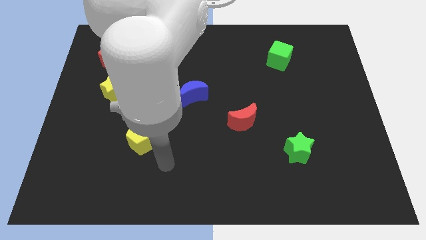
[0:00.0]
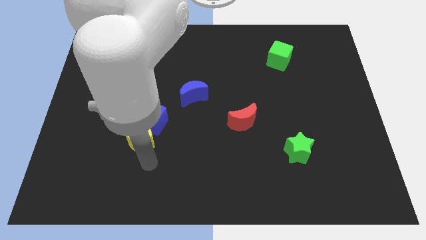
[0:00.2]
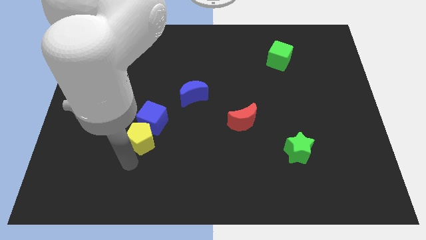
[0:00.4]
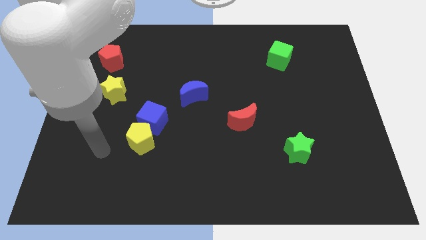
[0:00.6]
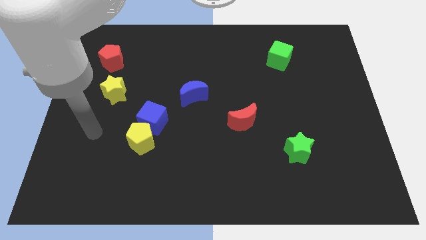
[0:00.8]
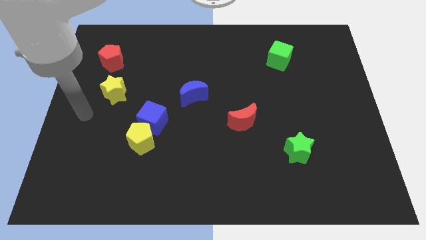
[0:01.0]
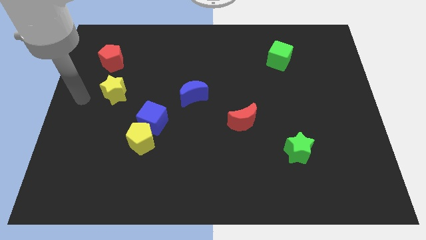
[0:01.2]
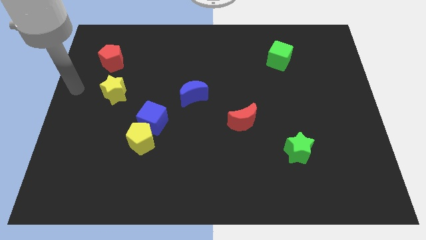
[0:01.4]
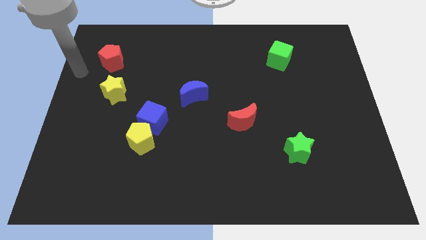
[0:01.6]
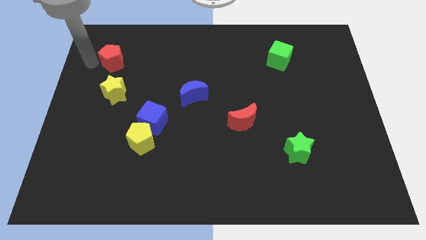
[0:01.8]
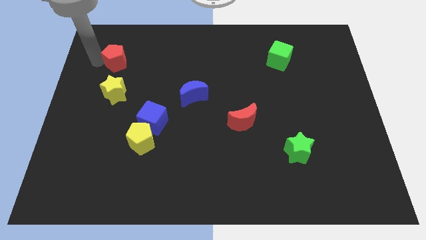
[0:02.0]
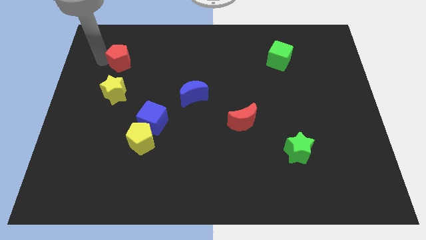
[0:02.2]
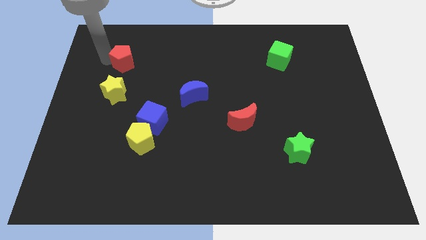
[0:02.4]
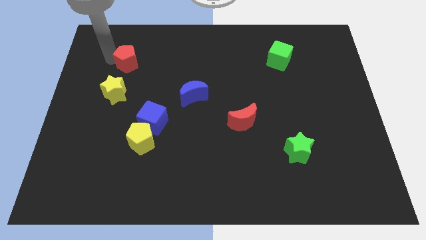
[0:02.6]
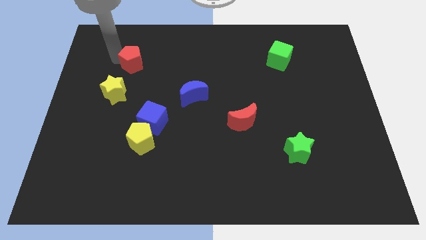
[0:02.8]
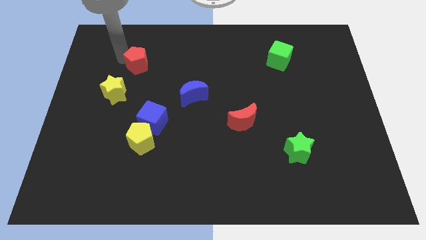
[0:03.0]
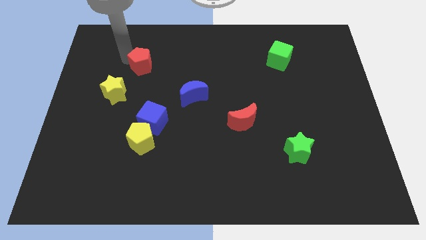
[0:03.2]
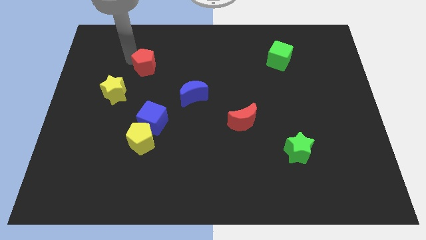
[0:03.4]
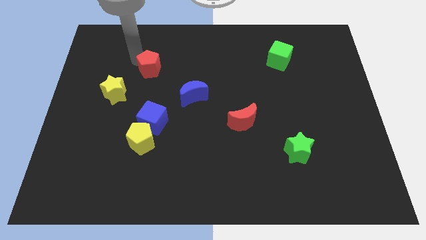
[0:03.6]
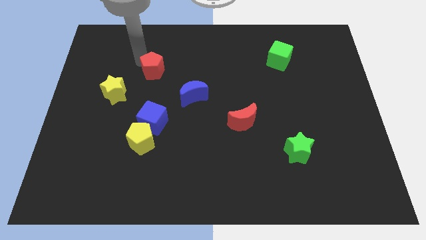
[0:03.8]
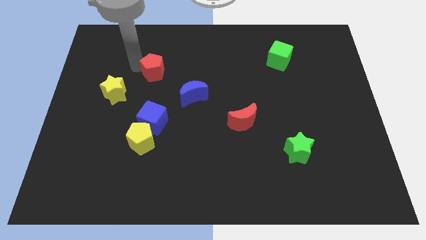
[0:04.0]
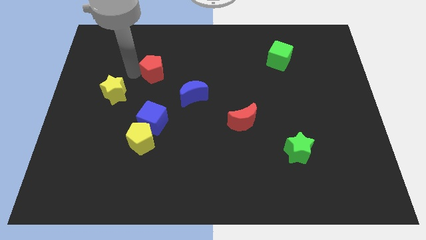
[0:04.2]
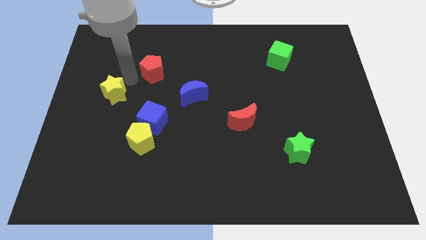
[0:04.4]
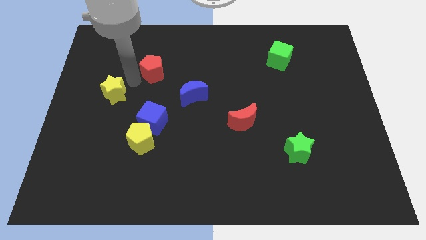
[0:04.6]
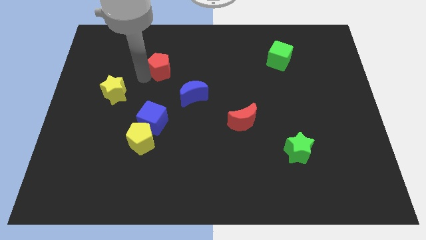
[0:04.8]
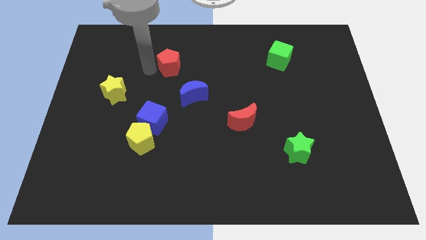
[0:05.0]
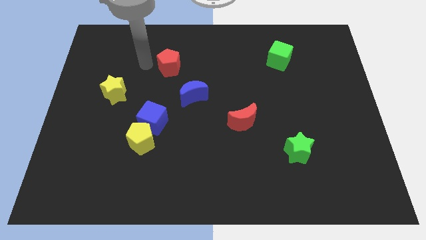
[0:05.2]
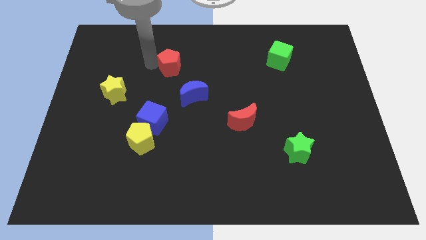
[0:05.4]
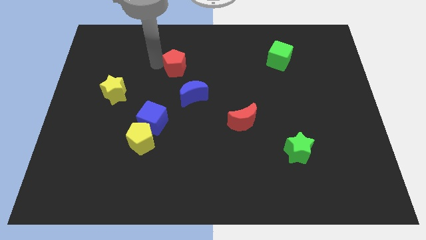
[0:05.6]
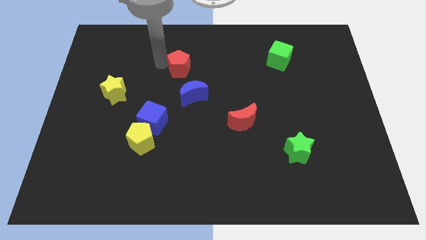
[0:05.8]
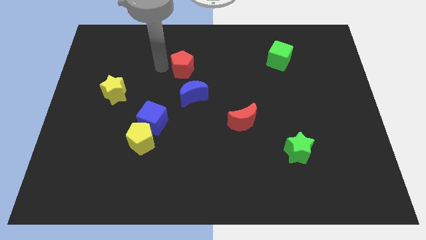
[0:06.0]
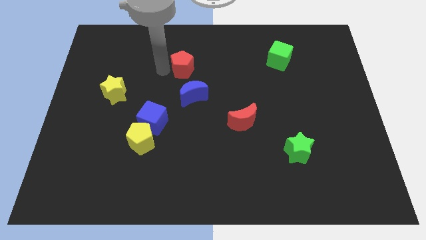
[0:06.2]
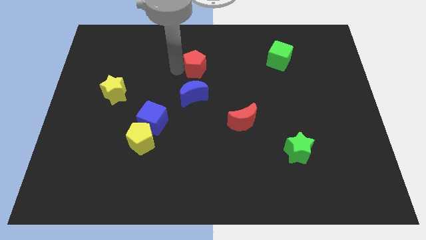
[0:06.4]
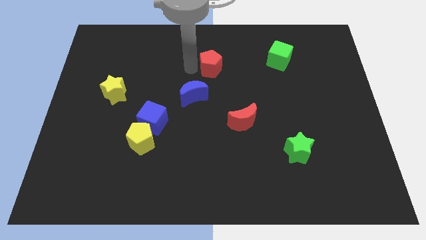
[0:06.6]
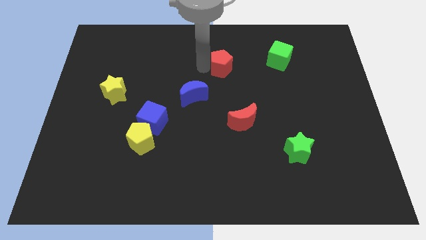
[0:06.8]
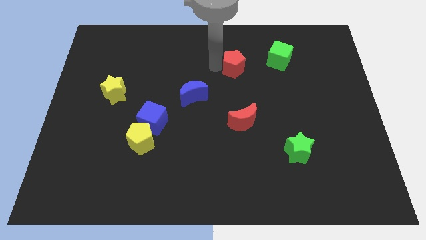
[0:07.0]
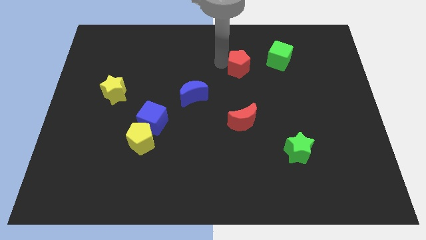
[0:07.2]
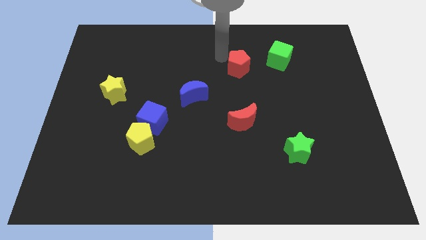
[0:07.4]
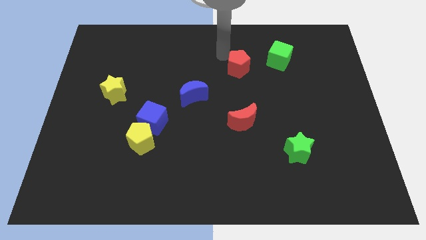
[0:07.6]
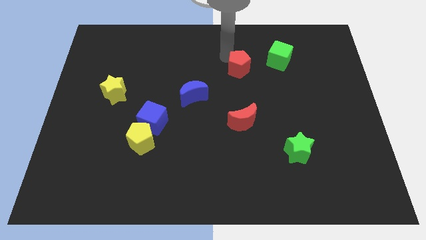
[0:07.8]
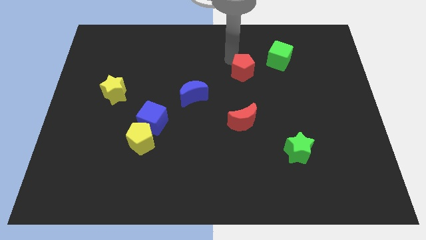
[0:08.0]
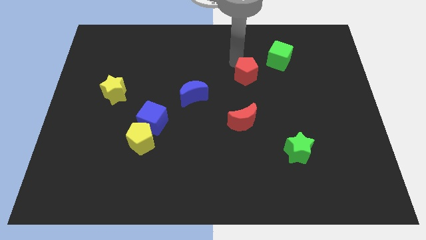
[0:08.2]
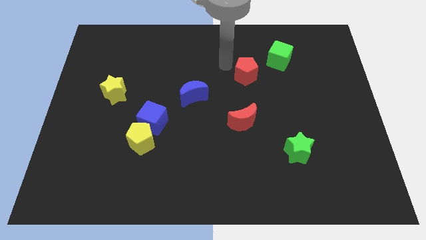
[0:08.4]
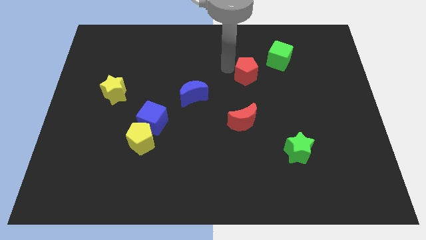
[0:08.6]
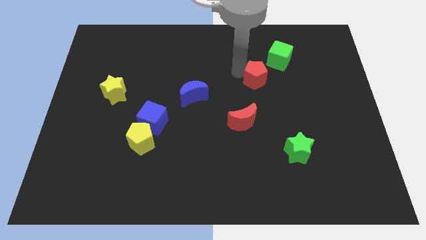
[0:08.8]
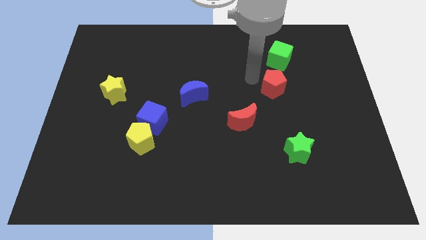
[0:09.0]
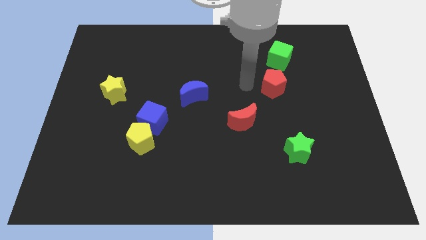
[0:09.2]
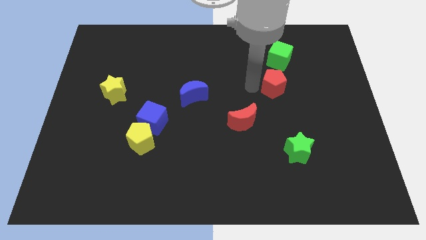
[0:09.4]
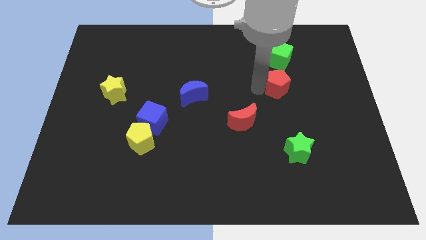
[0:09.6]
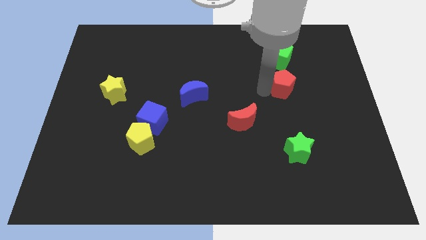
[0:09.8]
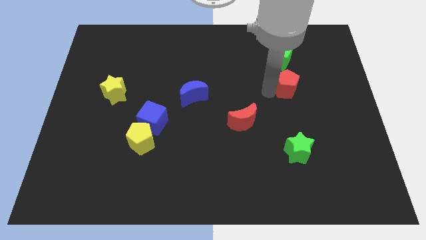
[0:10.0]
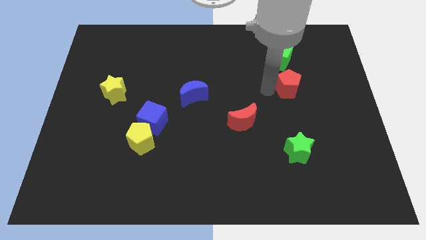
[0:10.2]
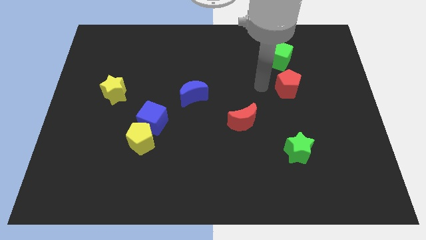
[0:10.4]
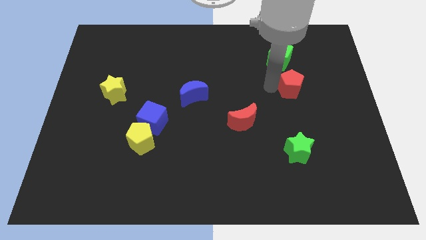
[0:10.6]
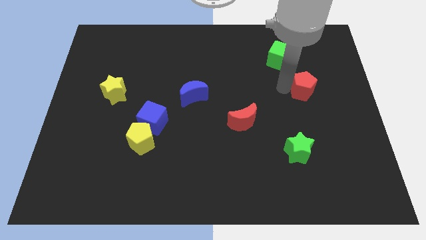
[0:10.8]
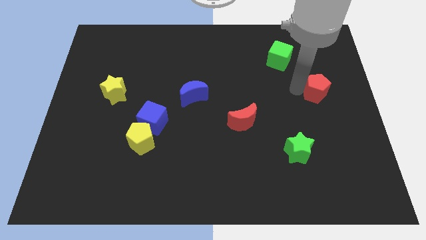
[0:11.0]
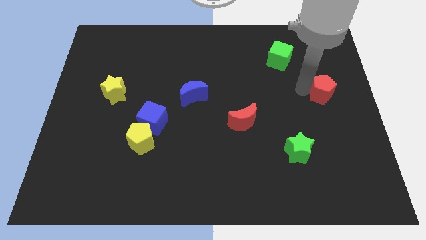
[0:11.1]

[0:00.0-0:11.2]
push the red pentagon to the right side of the board

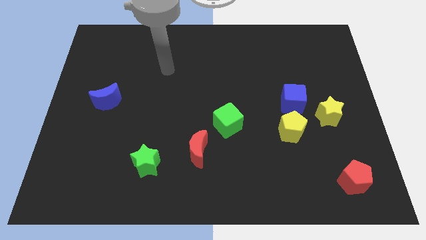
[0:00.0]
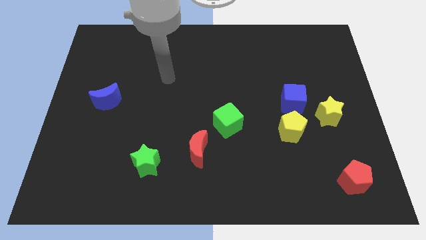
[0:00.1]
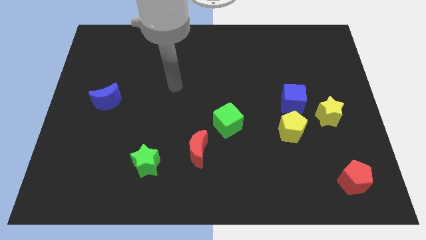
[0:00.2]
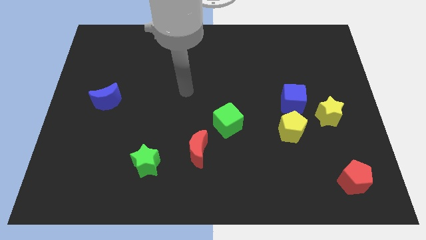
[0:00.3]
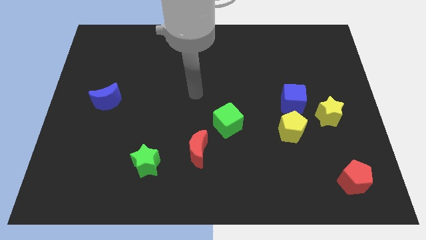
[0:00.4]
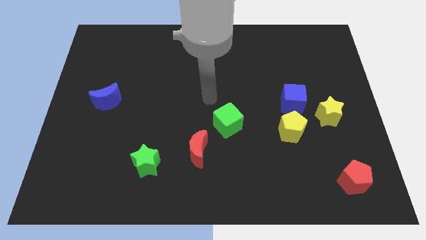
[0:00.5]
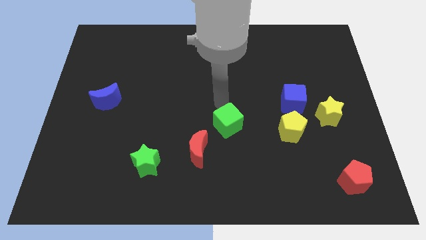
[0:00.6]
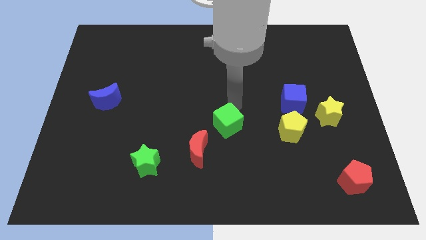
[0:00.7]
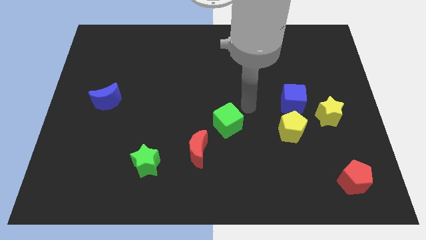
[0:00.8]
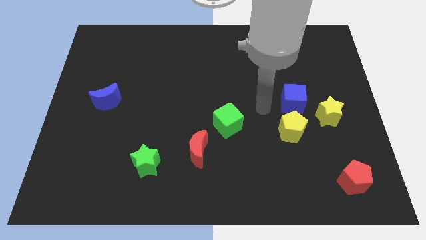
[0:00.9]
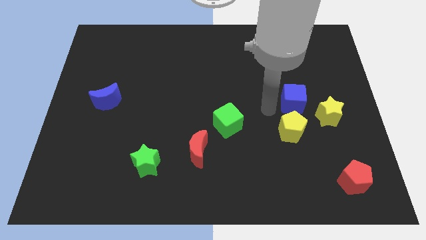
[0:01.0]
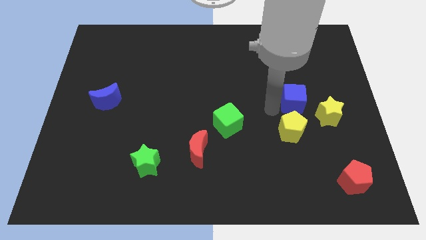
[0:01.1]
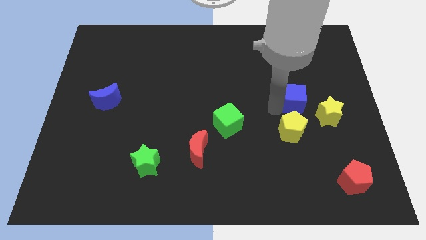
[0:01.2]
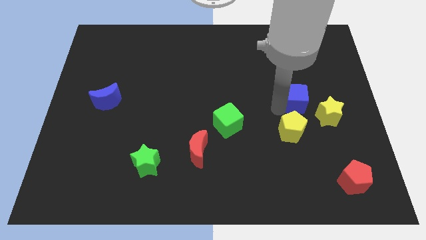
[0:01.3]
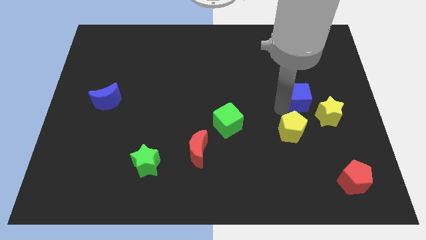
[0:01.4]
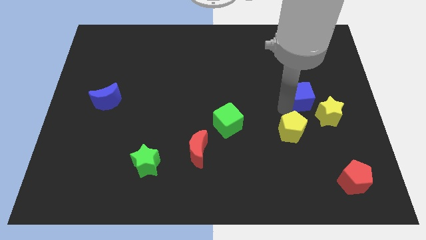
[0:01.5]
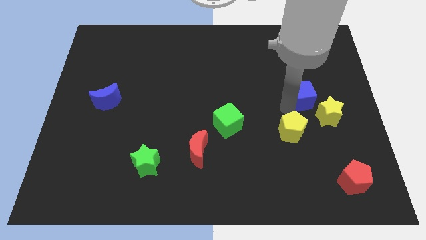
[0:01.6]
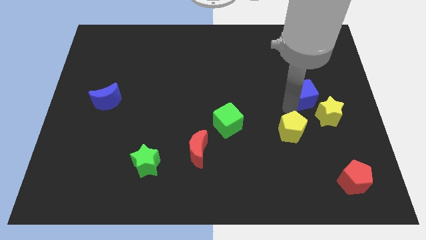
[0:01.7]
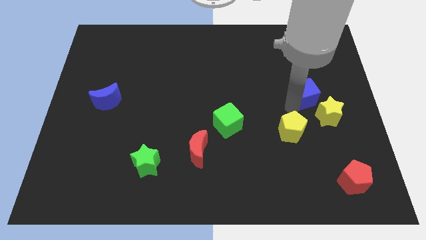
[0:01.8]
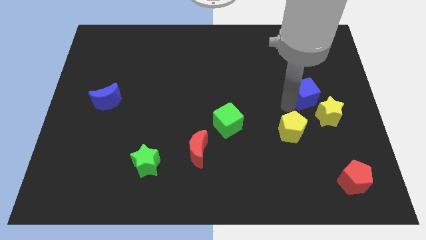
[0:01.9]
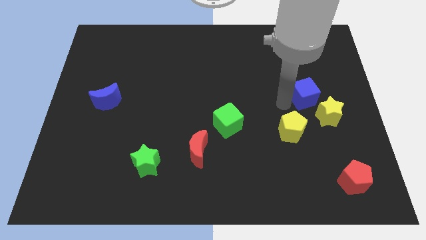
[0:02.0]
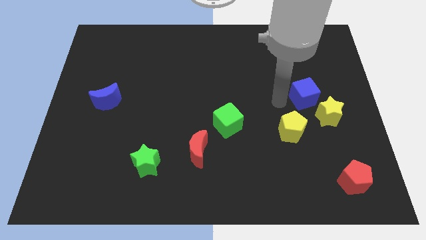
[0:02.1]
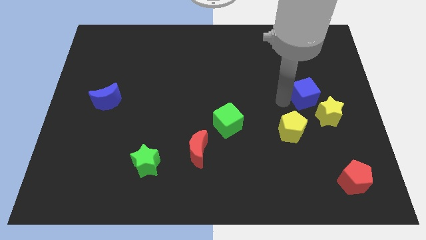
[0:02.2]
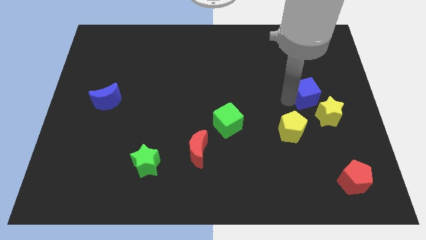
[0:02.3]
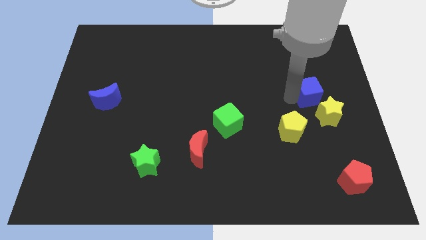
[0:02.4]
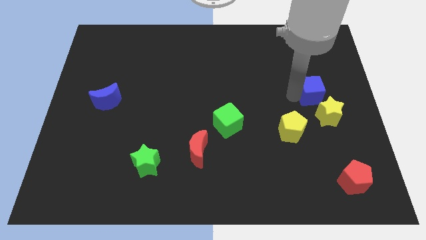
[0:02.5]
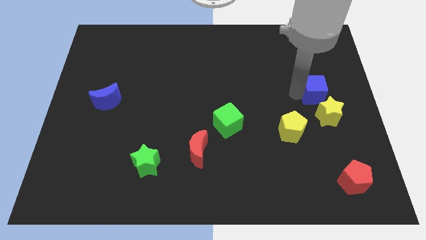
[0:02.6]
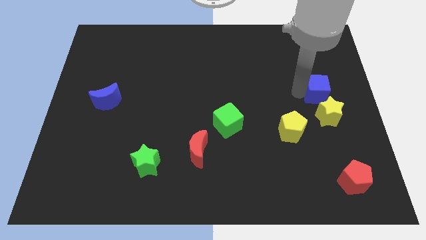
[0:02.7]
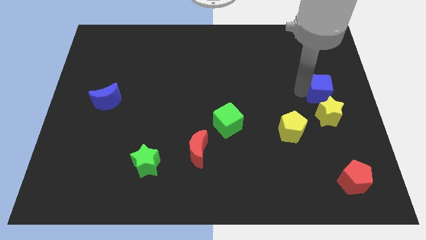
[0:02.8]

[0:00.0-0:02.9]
put the blue cube to the center right

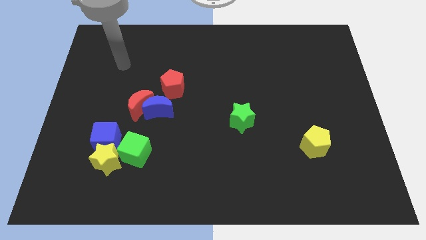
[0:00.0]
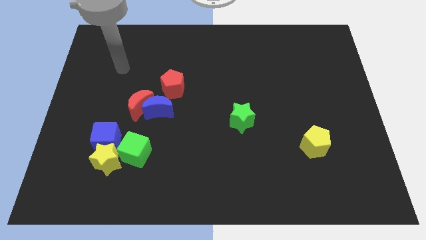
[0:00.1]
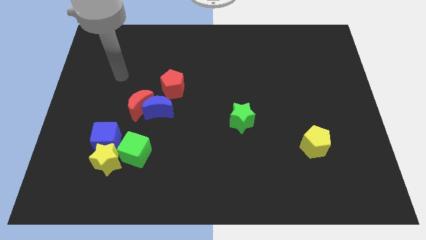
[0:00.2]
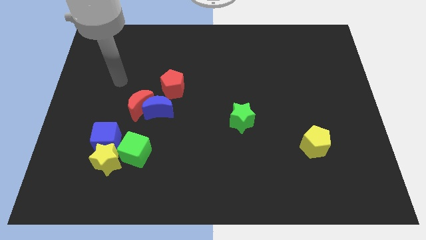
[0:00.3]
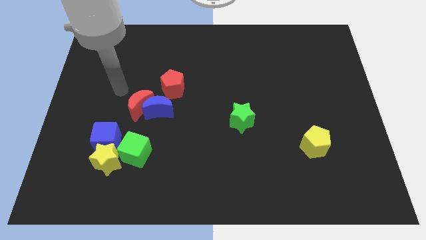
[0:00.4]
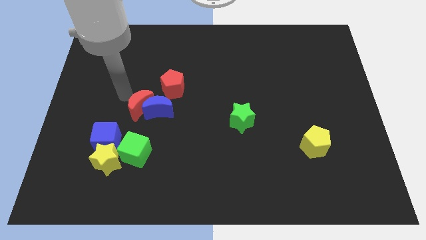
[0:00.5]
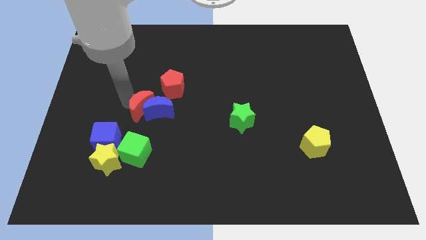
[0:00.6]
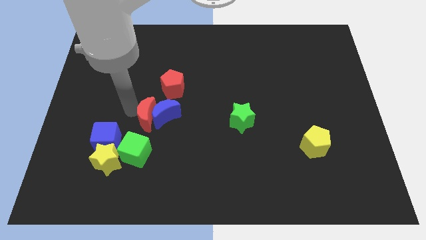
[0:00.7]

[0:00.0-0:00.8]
slide the blue moon to the center
